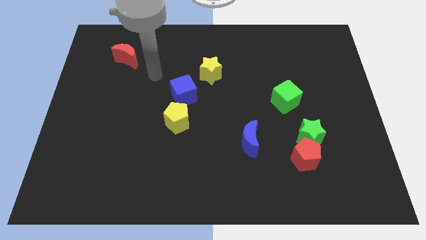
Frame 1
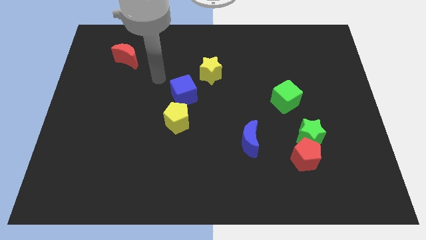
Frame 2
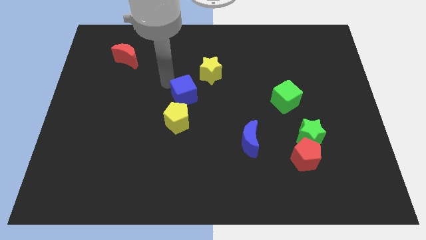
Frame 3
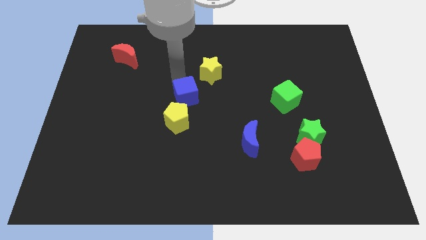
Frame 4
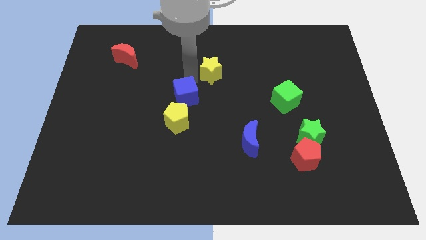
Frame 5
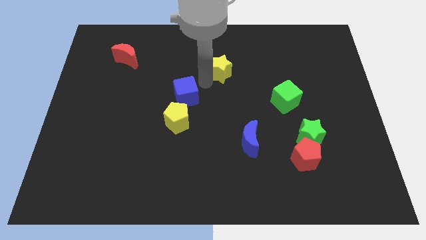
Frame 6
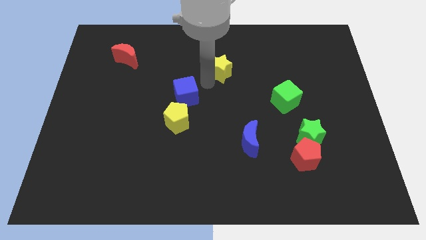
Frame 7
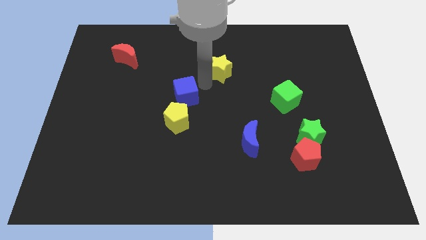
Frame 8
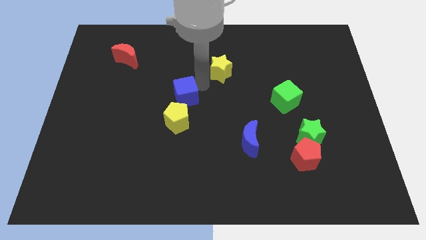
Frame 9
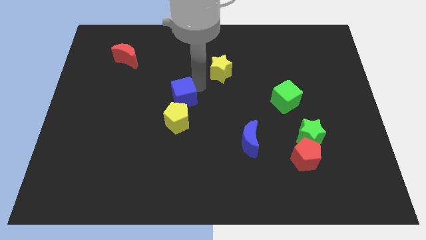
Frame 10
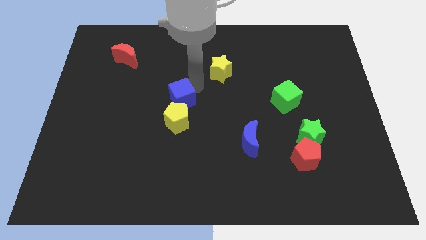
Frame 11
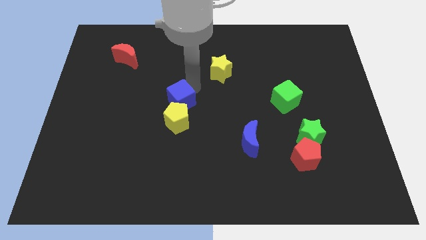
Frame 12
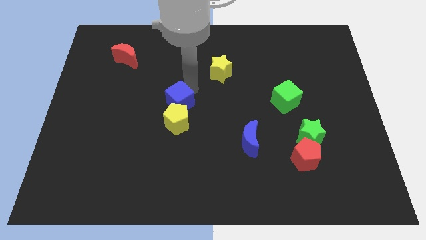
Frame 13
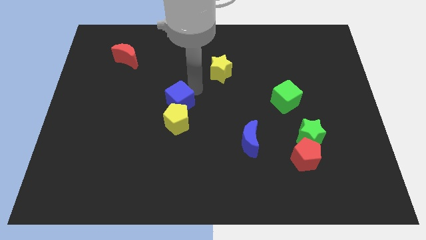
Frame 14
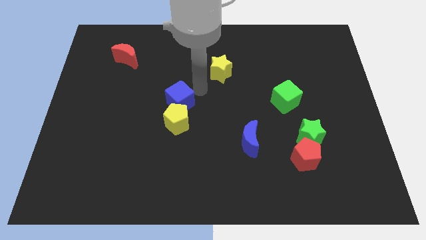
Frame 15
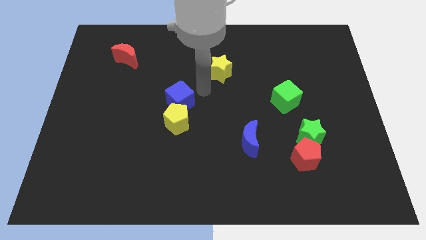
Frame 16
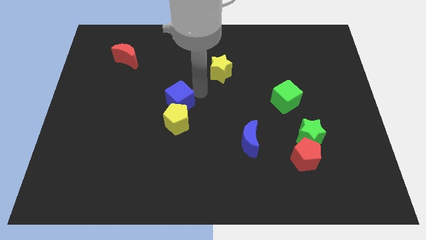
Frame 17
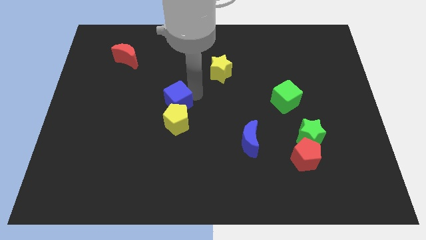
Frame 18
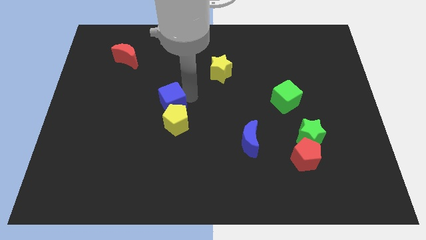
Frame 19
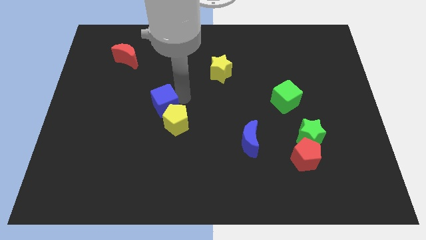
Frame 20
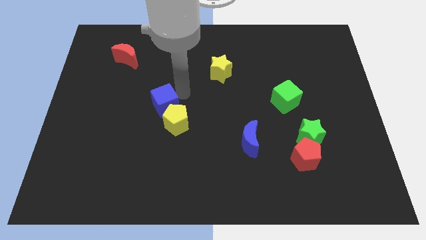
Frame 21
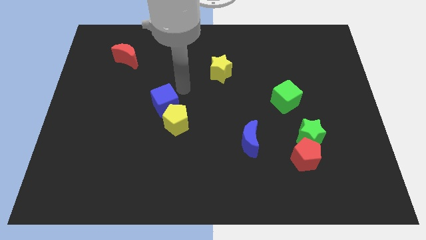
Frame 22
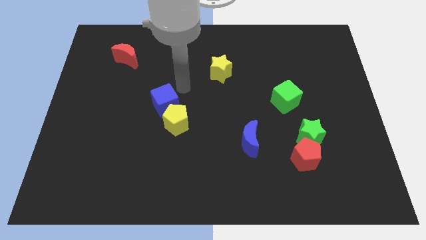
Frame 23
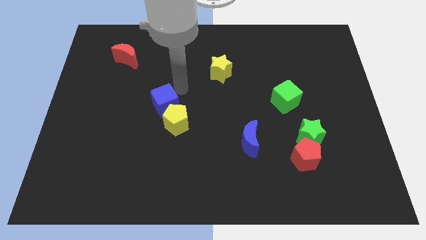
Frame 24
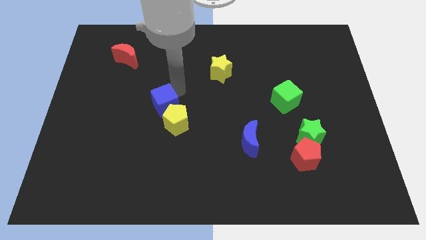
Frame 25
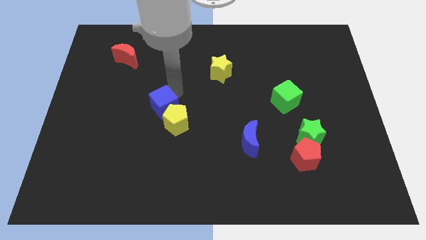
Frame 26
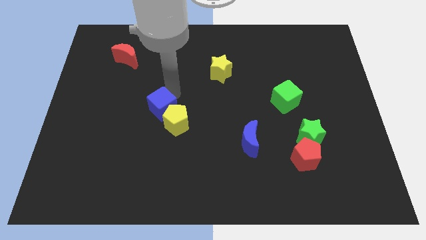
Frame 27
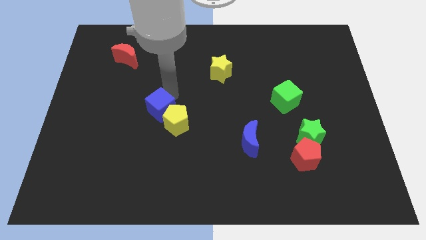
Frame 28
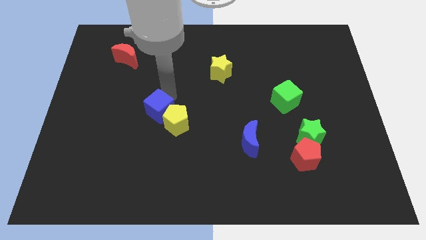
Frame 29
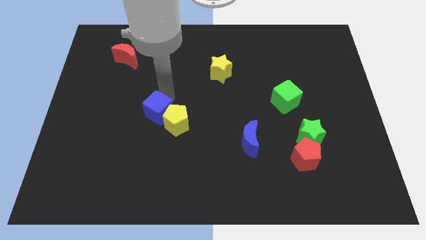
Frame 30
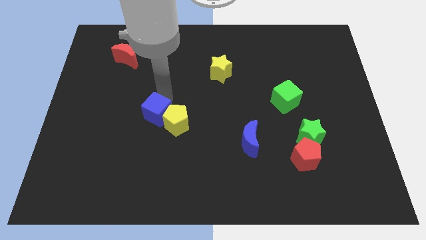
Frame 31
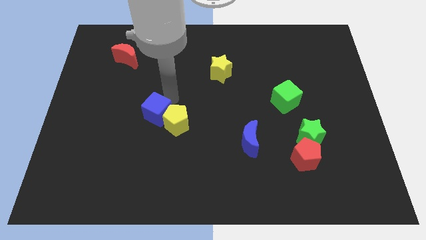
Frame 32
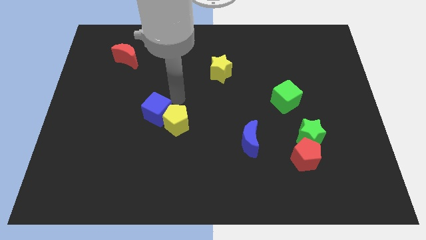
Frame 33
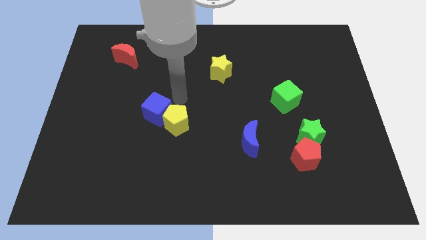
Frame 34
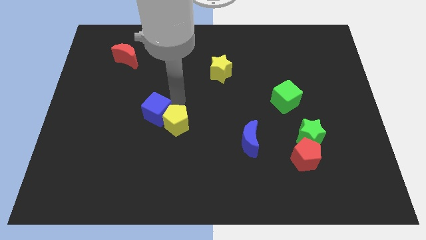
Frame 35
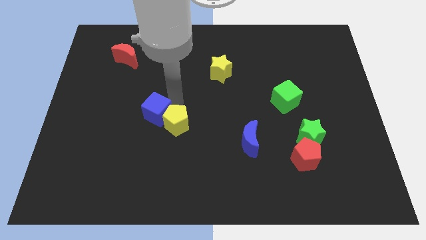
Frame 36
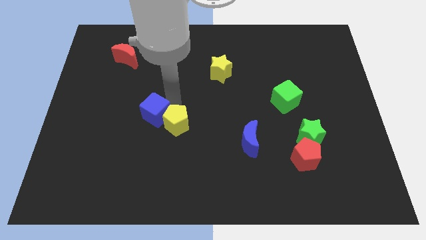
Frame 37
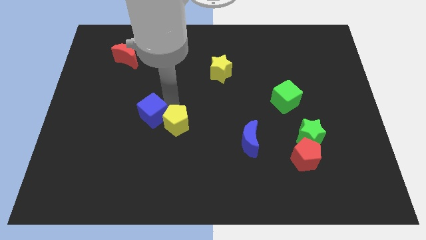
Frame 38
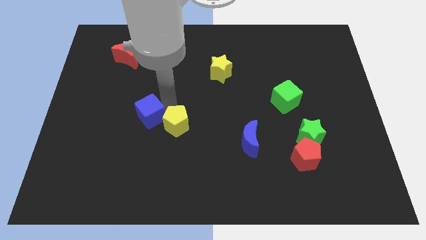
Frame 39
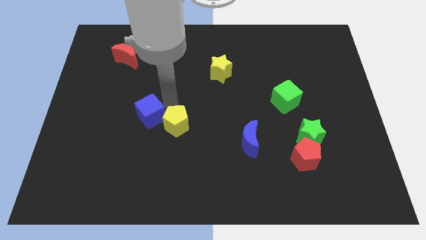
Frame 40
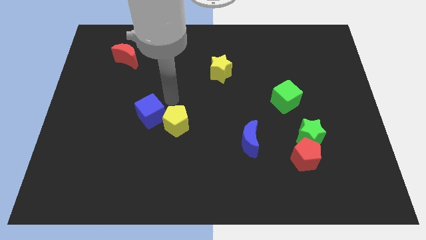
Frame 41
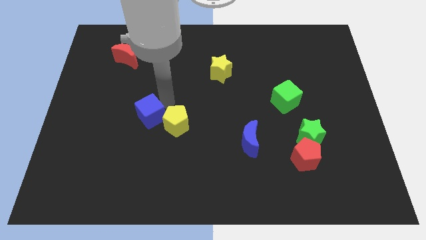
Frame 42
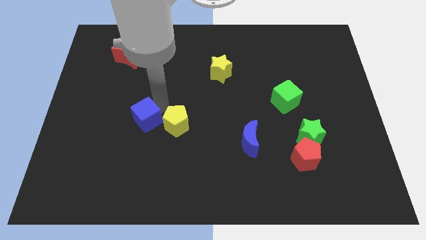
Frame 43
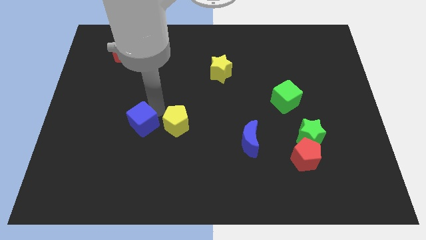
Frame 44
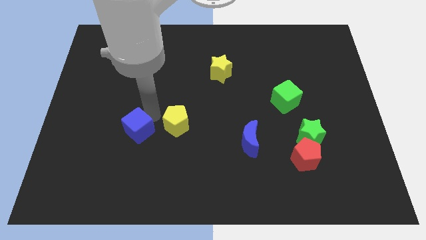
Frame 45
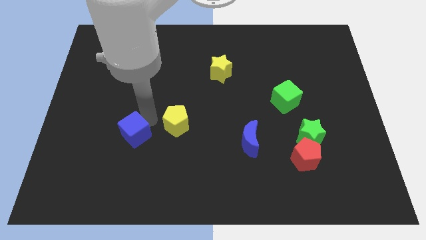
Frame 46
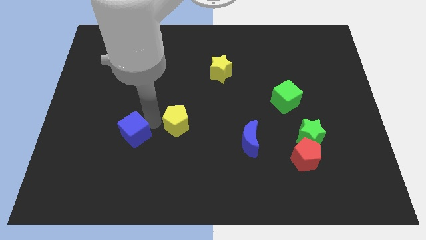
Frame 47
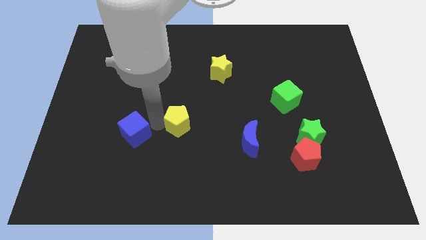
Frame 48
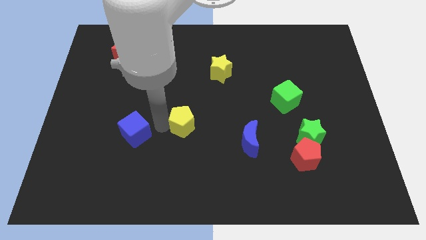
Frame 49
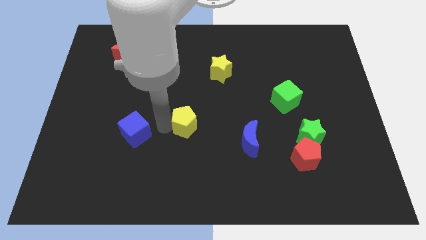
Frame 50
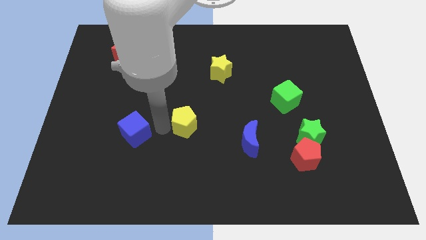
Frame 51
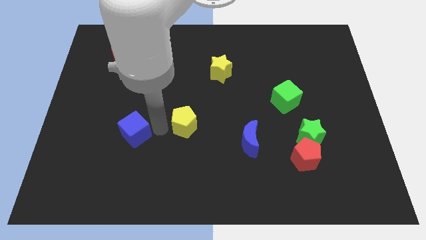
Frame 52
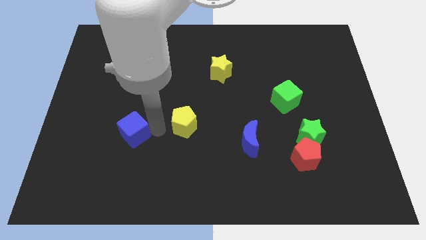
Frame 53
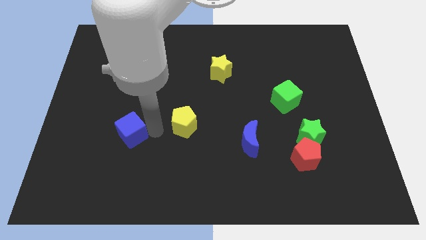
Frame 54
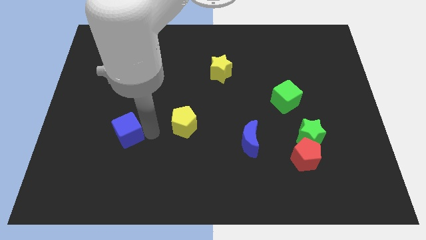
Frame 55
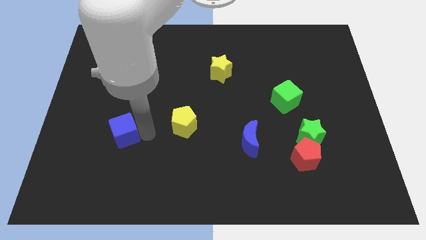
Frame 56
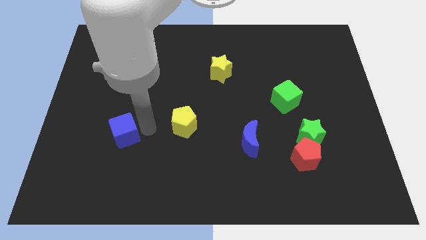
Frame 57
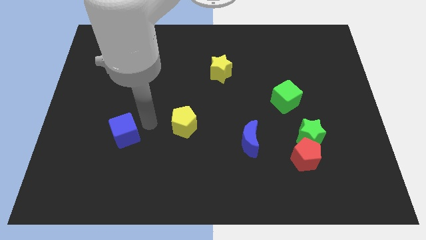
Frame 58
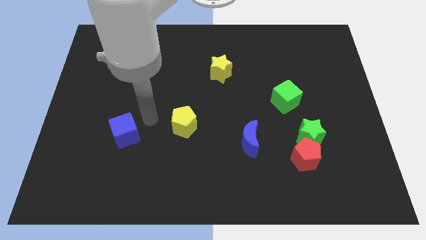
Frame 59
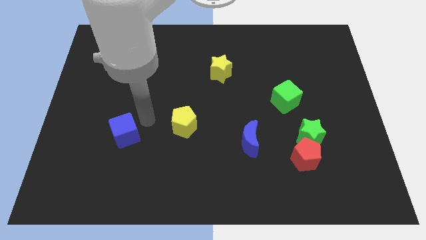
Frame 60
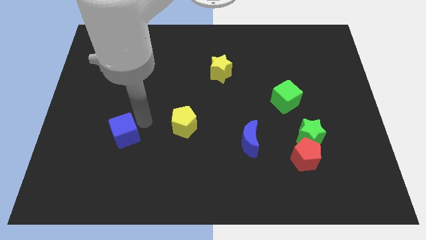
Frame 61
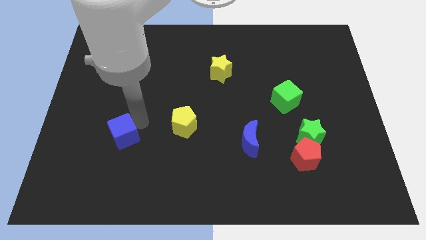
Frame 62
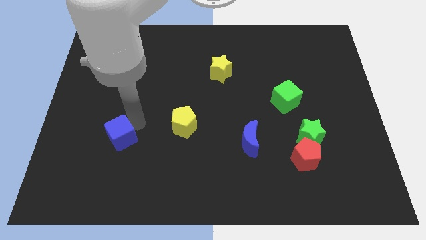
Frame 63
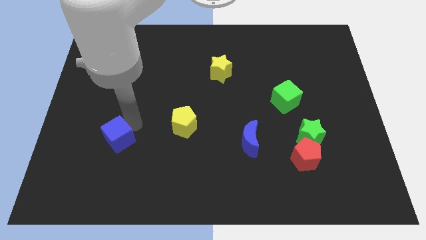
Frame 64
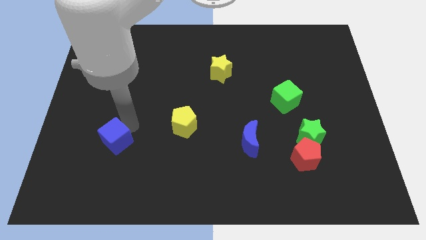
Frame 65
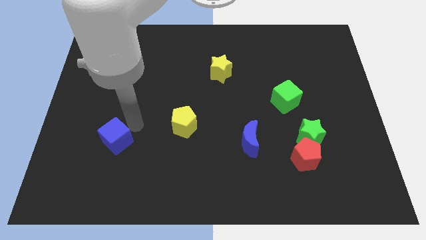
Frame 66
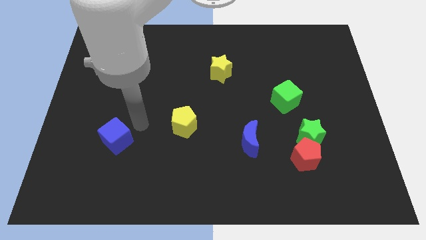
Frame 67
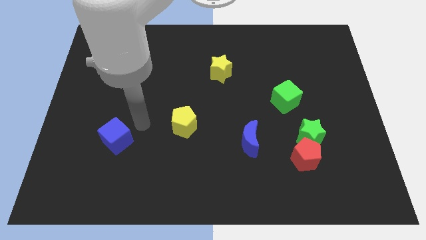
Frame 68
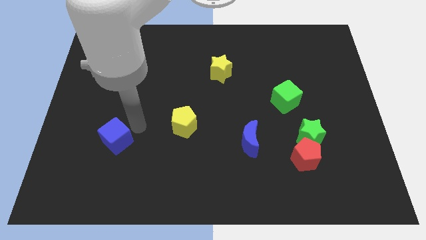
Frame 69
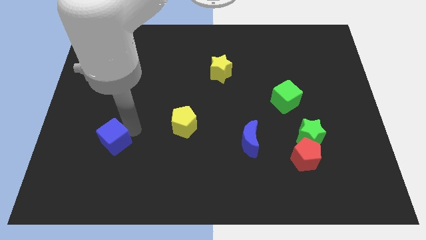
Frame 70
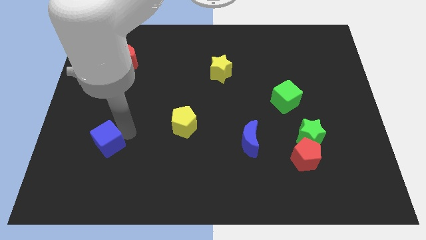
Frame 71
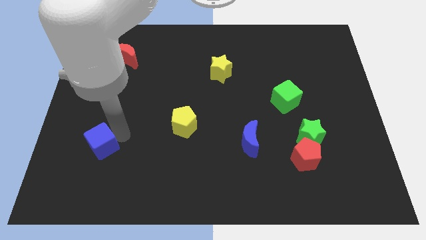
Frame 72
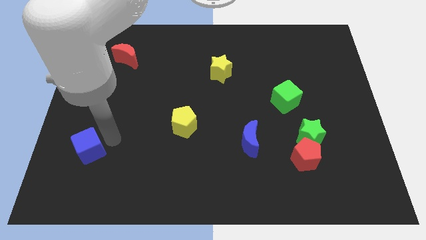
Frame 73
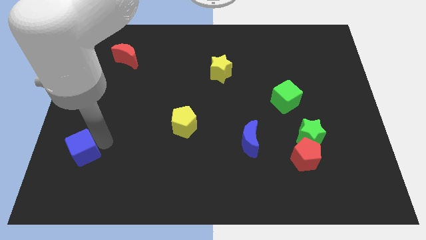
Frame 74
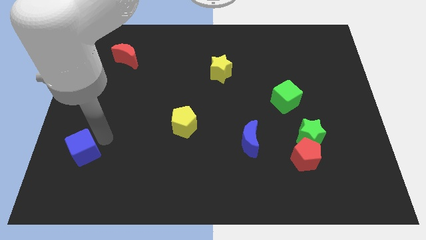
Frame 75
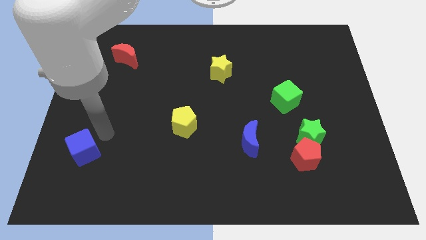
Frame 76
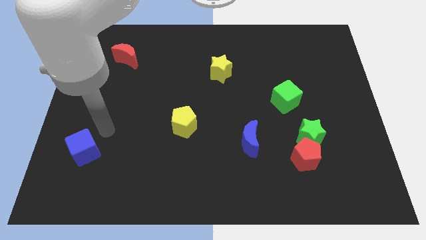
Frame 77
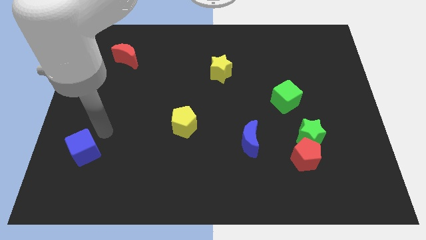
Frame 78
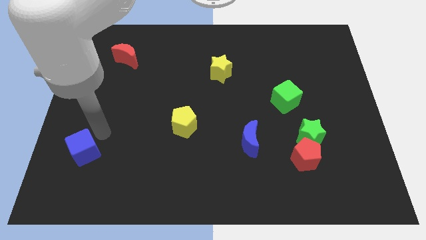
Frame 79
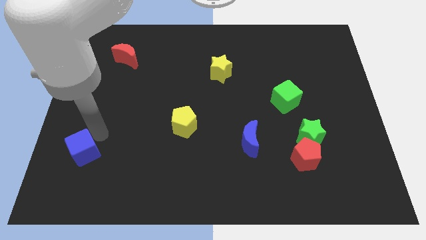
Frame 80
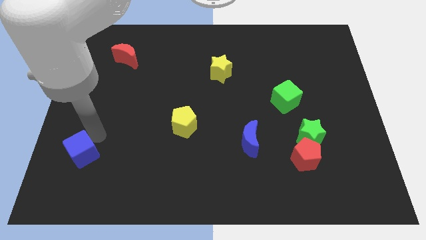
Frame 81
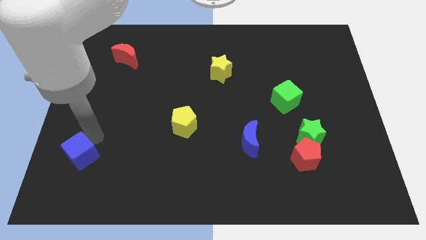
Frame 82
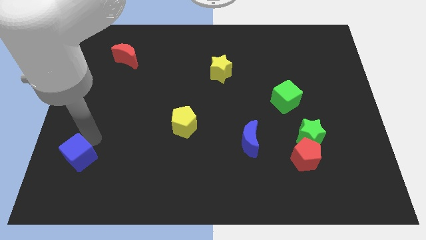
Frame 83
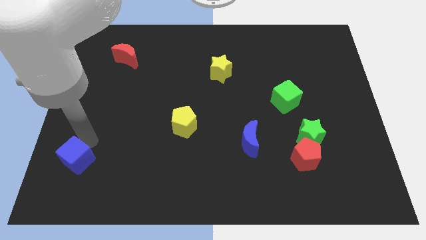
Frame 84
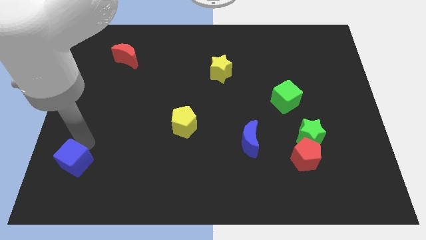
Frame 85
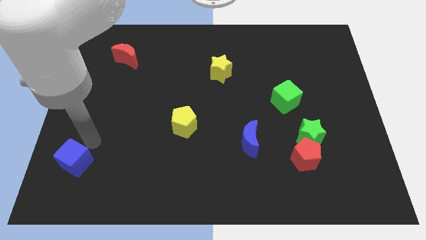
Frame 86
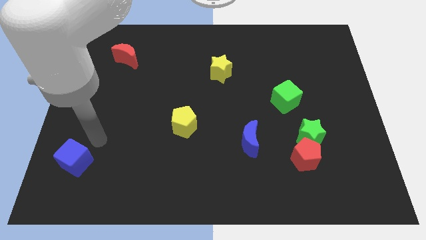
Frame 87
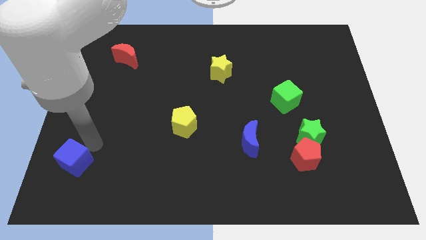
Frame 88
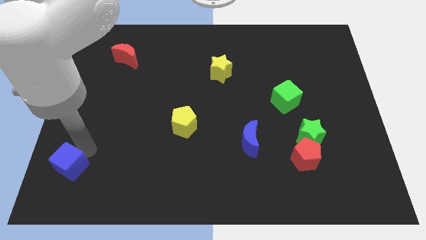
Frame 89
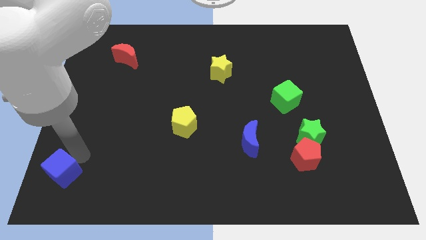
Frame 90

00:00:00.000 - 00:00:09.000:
put the blue cube to the lower left corner
